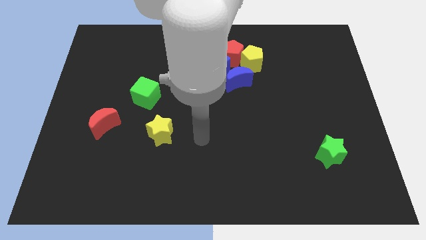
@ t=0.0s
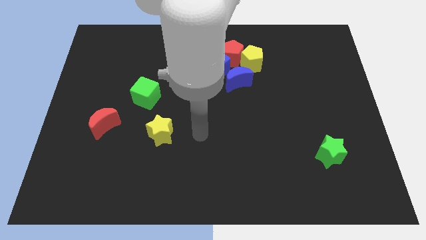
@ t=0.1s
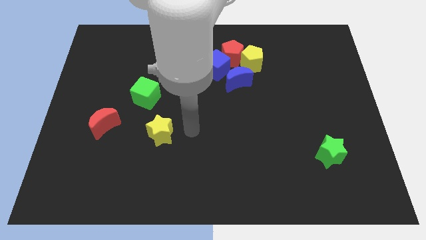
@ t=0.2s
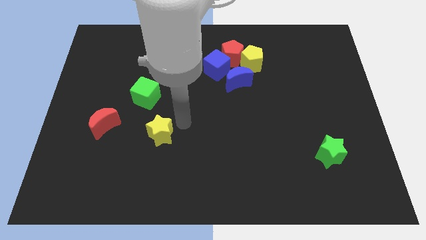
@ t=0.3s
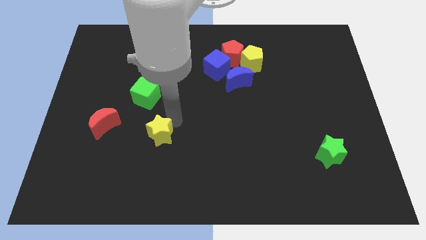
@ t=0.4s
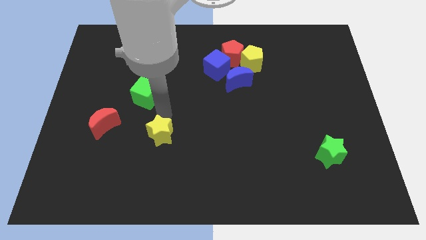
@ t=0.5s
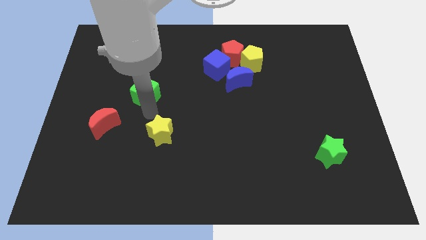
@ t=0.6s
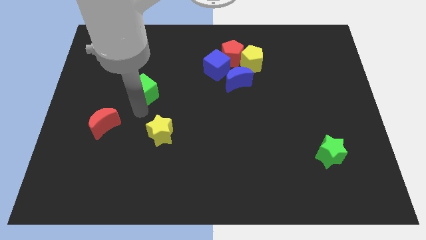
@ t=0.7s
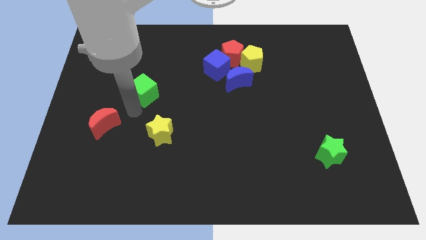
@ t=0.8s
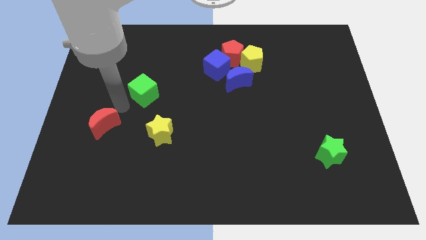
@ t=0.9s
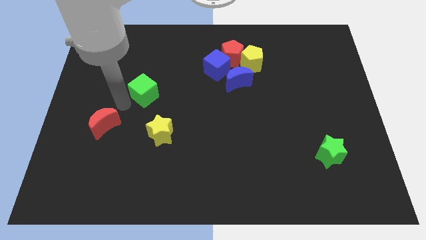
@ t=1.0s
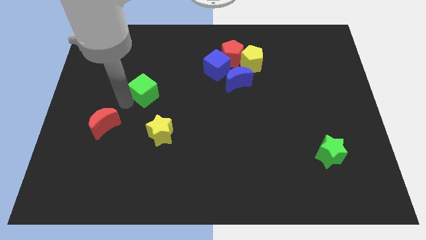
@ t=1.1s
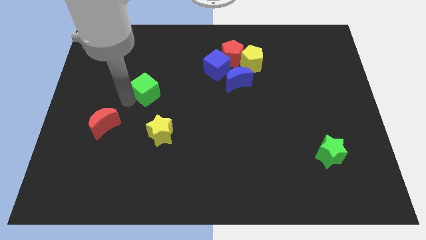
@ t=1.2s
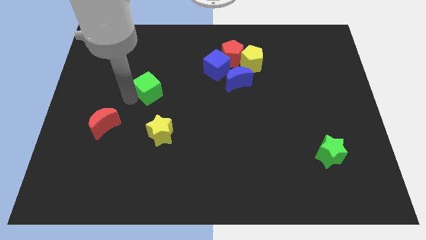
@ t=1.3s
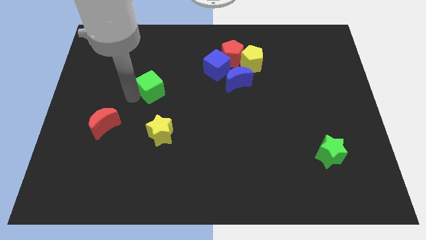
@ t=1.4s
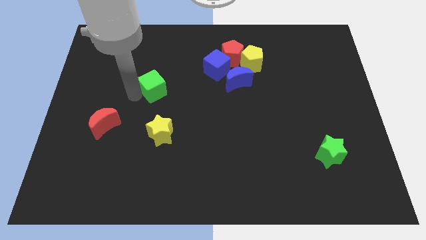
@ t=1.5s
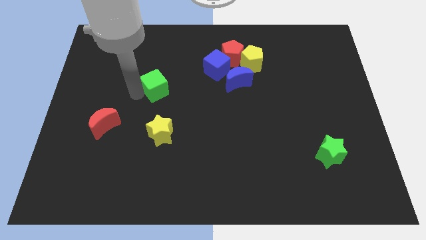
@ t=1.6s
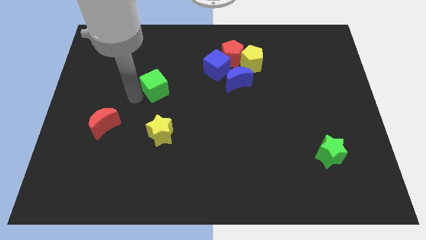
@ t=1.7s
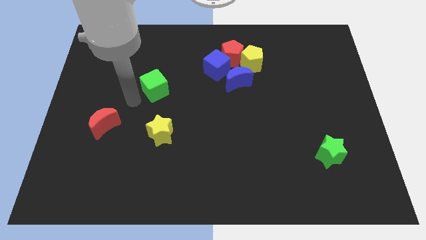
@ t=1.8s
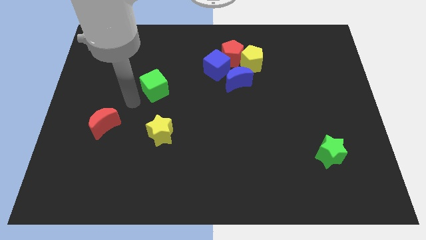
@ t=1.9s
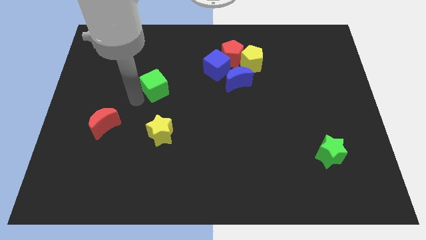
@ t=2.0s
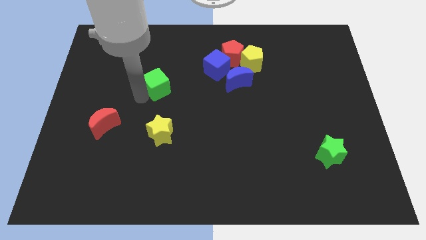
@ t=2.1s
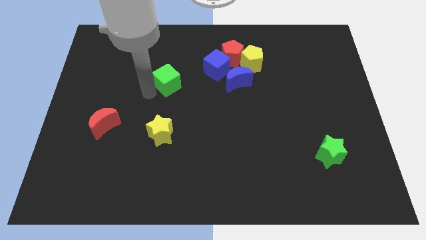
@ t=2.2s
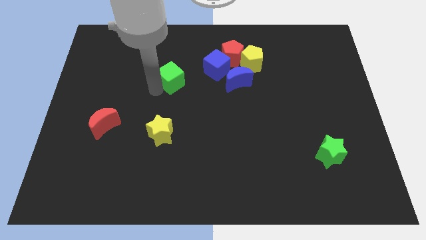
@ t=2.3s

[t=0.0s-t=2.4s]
push the green cube slightly up and then to the right

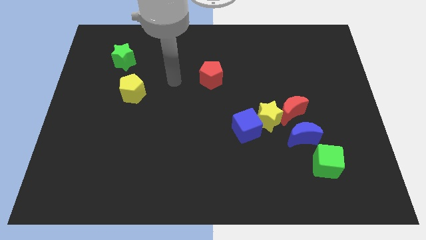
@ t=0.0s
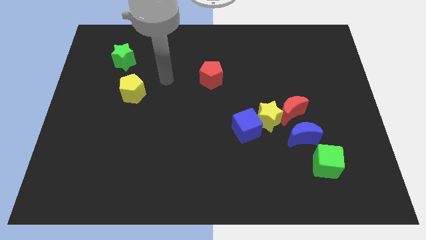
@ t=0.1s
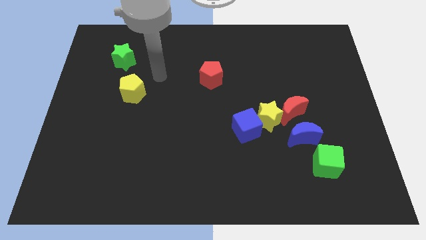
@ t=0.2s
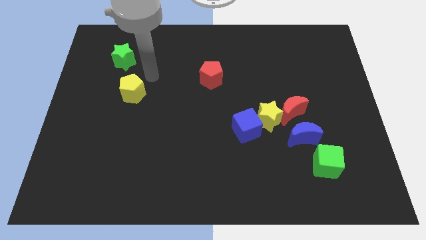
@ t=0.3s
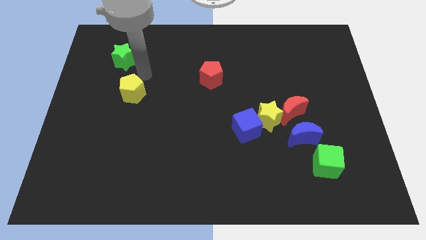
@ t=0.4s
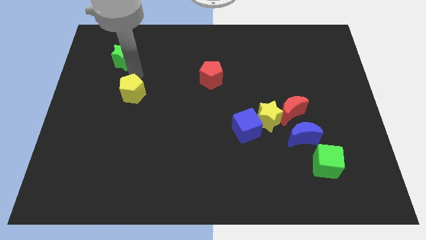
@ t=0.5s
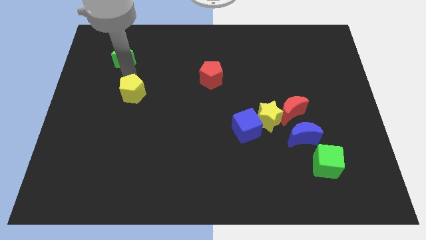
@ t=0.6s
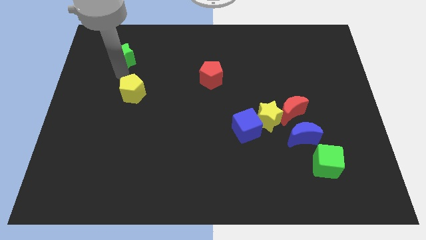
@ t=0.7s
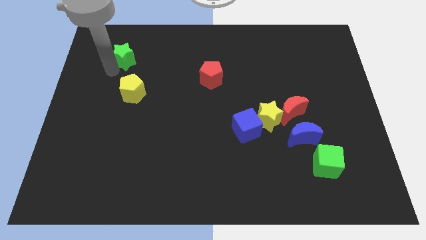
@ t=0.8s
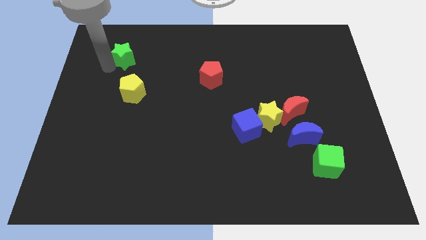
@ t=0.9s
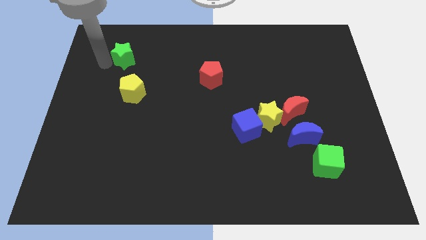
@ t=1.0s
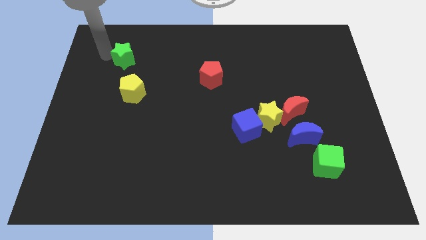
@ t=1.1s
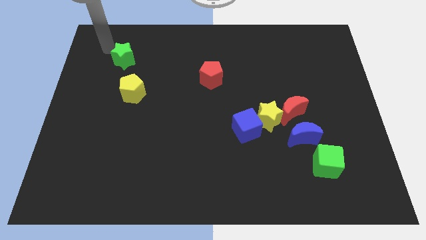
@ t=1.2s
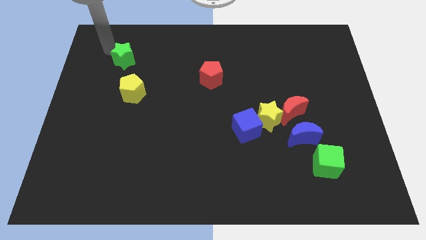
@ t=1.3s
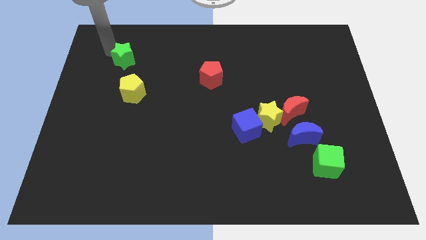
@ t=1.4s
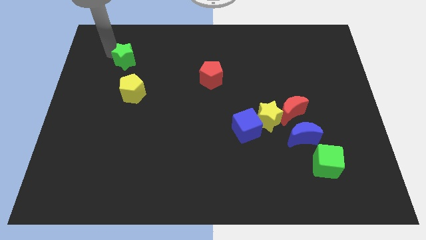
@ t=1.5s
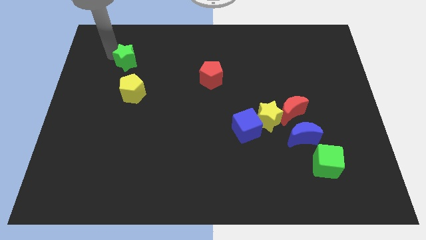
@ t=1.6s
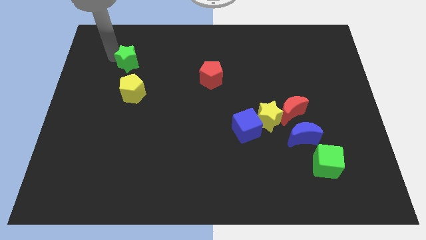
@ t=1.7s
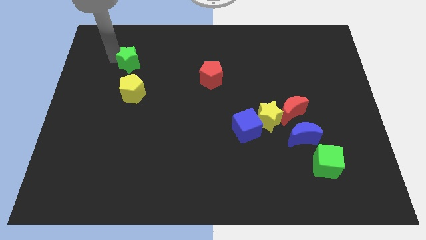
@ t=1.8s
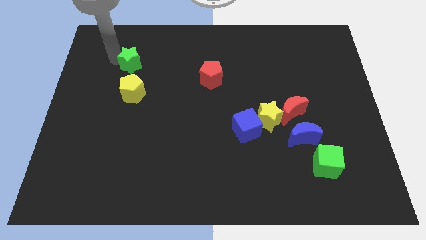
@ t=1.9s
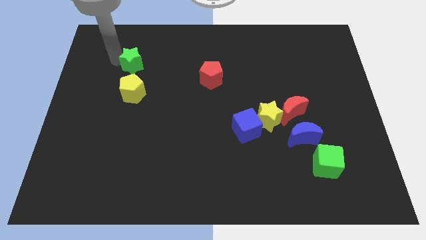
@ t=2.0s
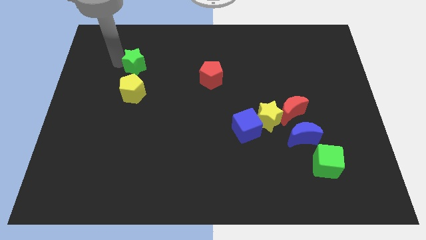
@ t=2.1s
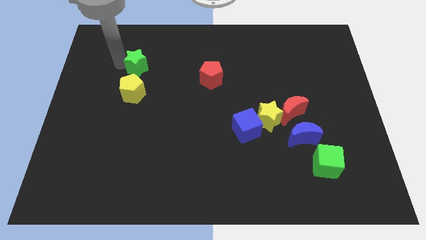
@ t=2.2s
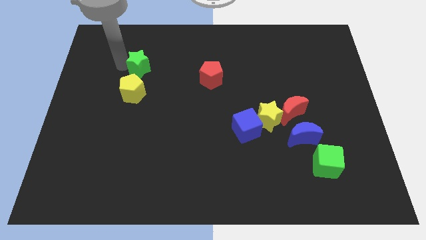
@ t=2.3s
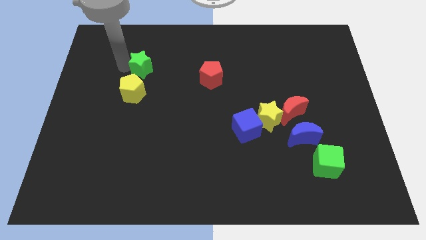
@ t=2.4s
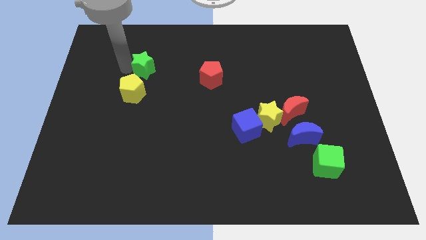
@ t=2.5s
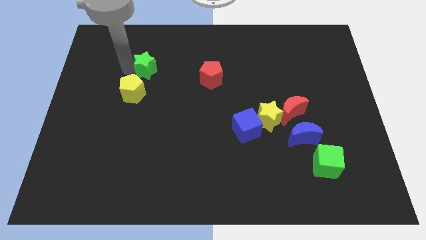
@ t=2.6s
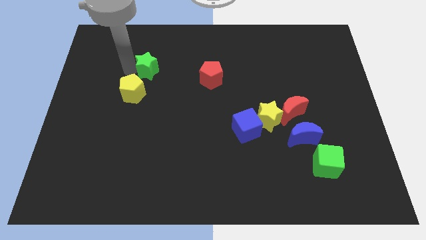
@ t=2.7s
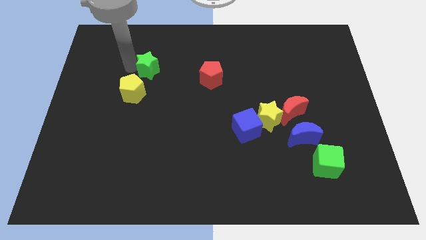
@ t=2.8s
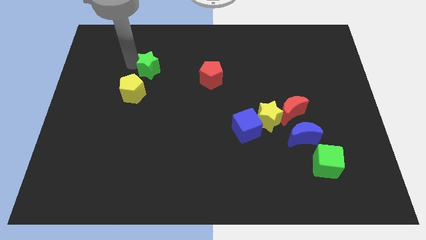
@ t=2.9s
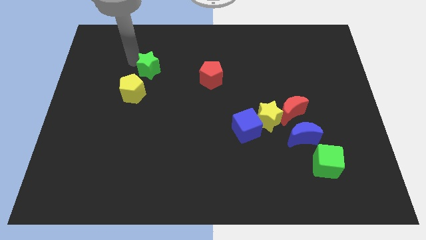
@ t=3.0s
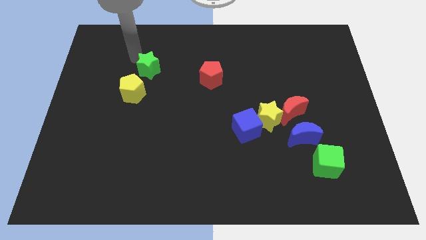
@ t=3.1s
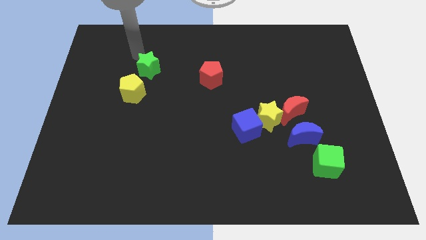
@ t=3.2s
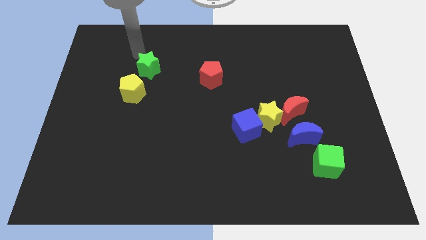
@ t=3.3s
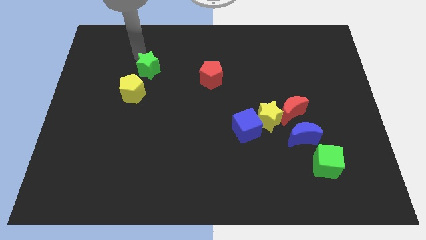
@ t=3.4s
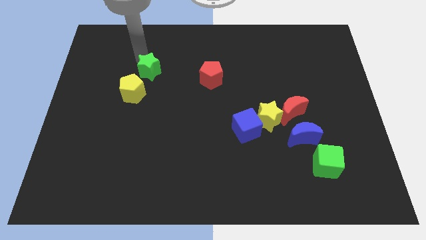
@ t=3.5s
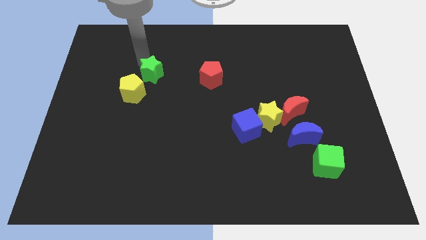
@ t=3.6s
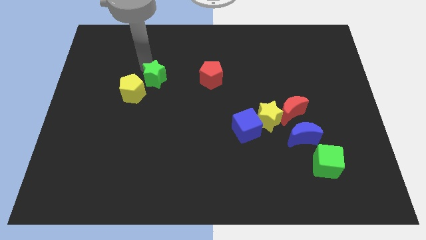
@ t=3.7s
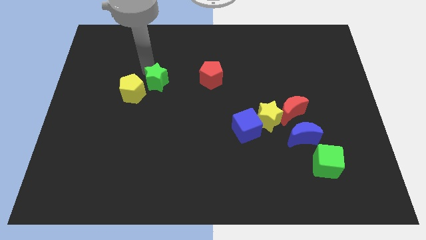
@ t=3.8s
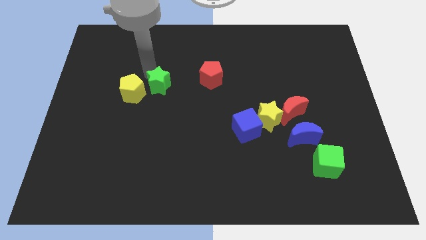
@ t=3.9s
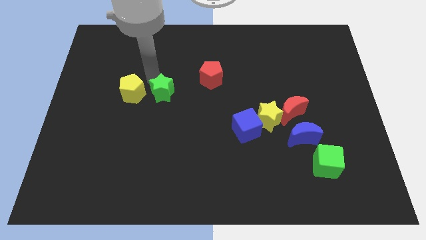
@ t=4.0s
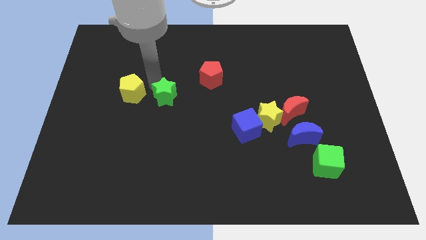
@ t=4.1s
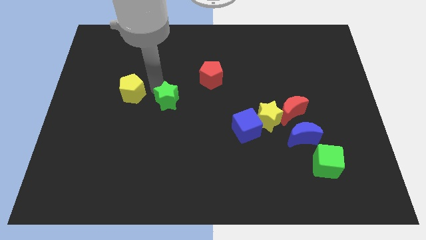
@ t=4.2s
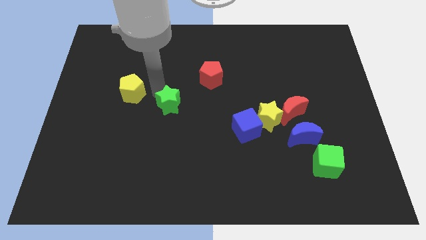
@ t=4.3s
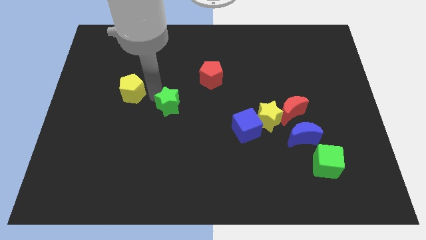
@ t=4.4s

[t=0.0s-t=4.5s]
move the green star down and right diagonally

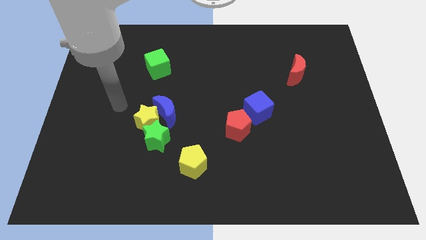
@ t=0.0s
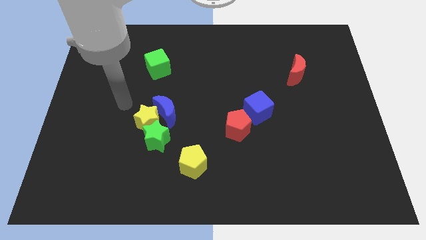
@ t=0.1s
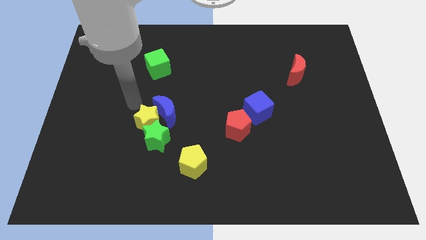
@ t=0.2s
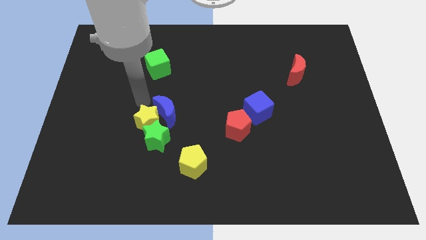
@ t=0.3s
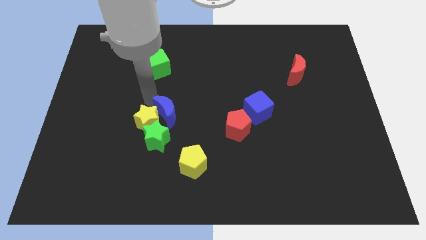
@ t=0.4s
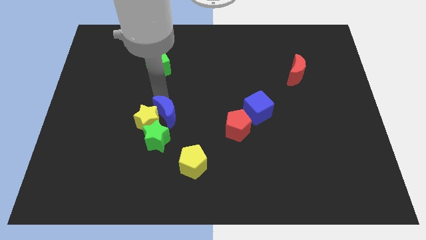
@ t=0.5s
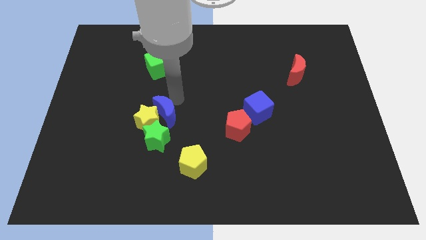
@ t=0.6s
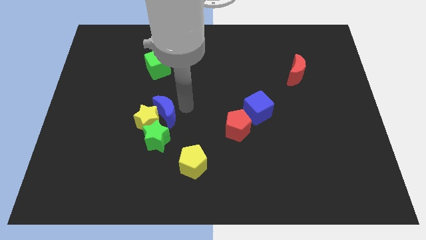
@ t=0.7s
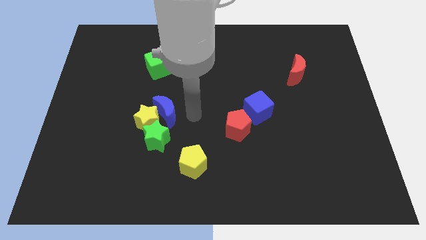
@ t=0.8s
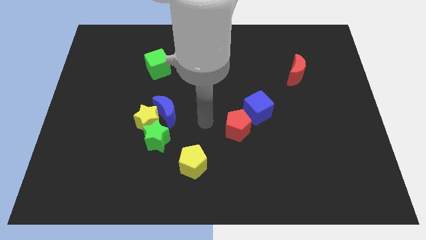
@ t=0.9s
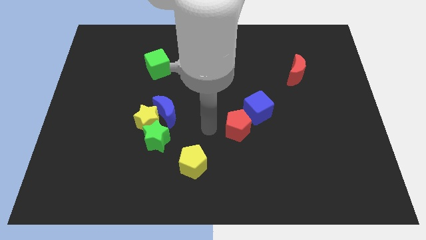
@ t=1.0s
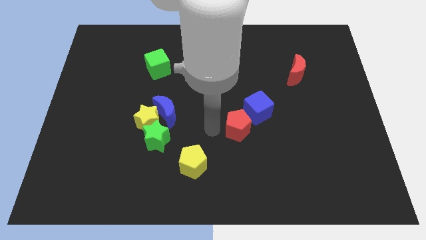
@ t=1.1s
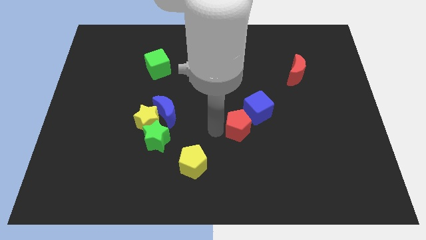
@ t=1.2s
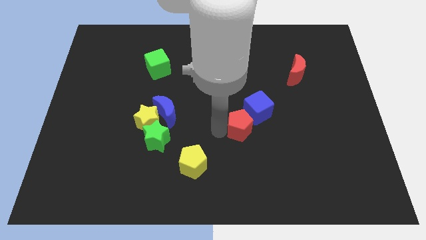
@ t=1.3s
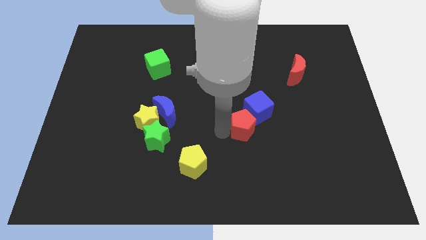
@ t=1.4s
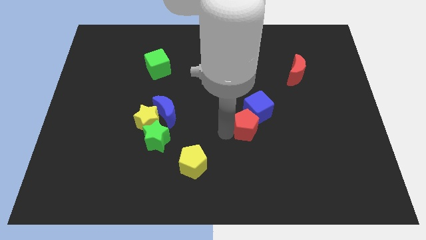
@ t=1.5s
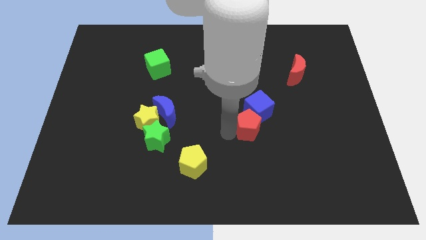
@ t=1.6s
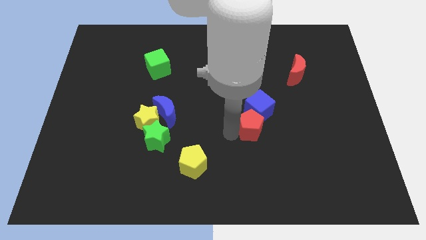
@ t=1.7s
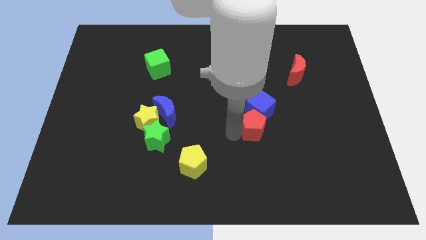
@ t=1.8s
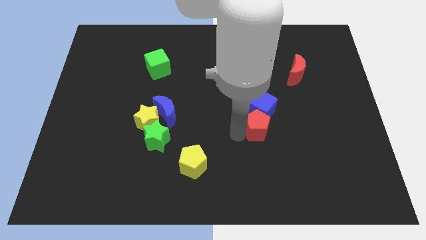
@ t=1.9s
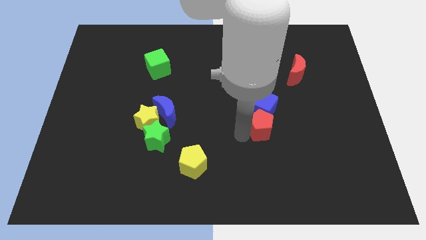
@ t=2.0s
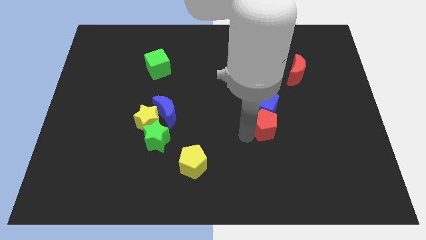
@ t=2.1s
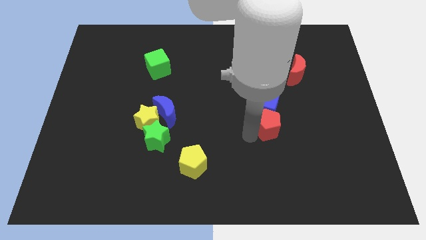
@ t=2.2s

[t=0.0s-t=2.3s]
slide the red pentagon right a little
